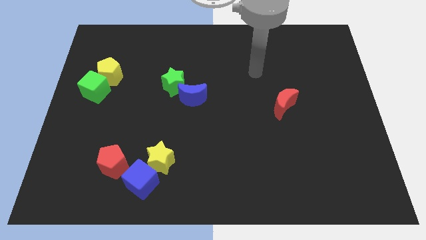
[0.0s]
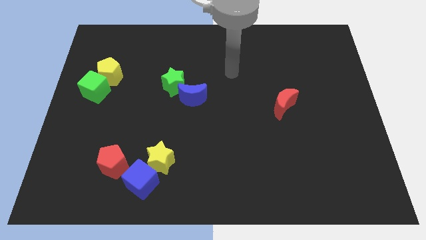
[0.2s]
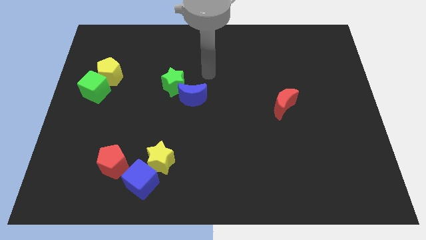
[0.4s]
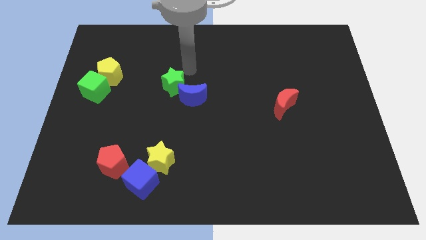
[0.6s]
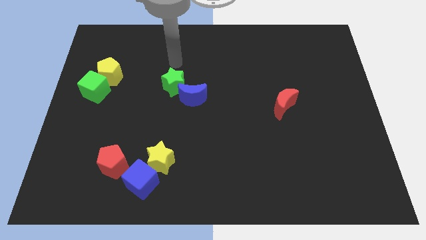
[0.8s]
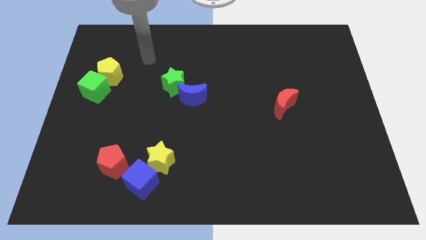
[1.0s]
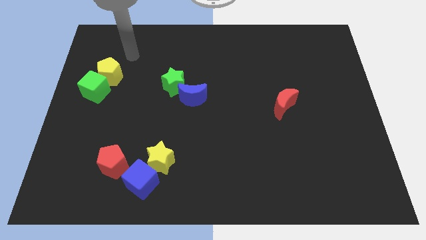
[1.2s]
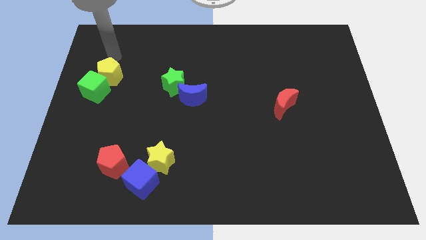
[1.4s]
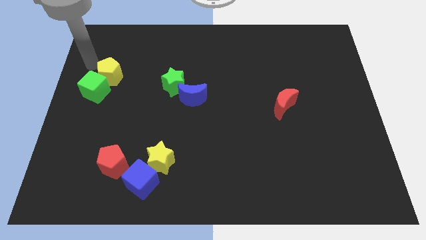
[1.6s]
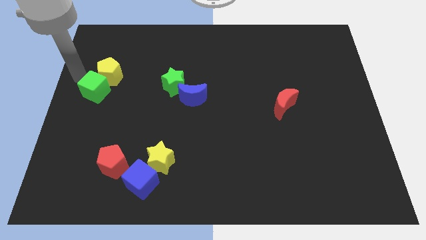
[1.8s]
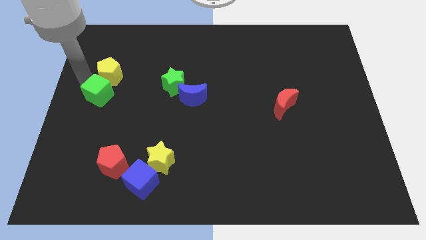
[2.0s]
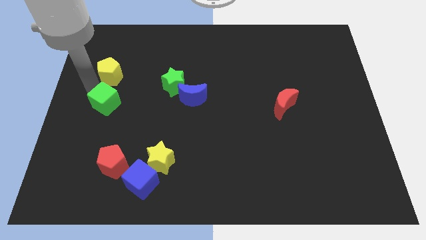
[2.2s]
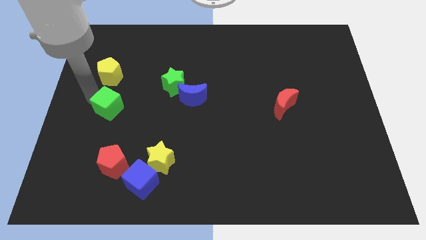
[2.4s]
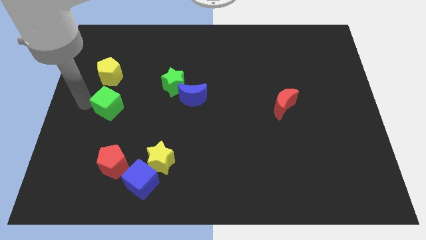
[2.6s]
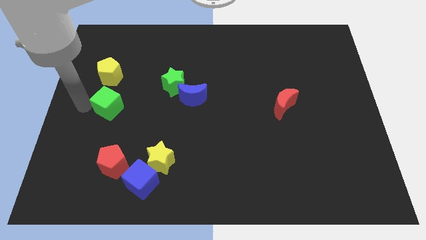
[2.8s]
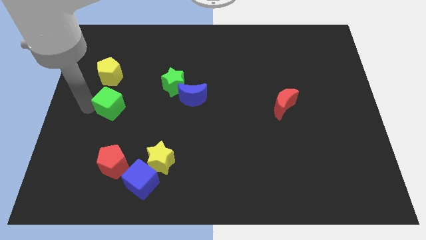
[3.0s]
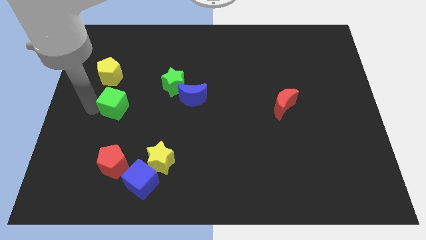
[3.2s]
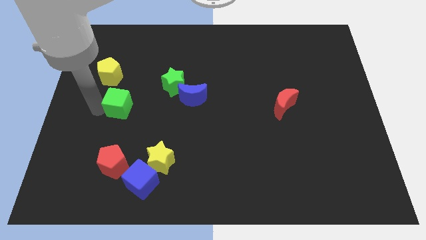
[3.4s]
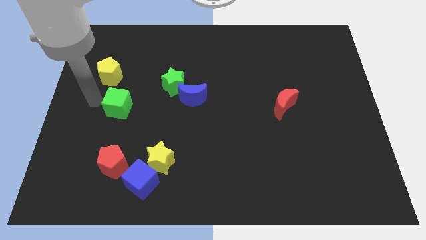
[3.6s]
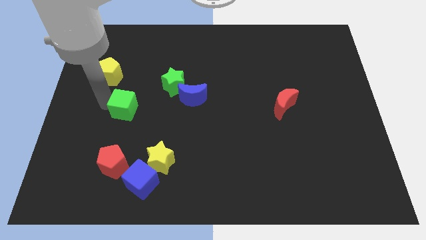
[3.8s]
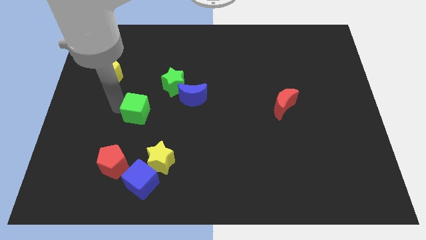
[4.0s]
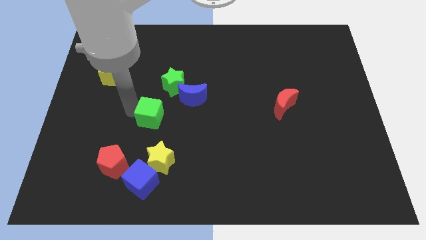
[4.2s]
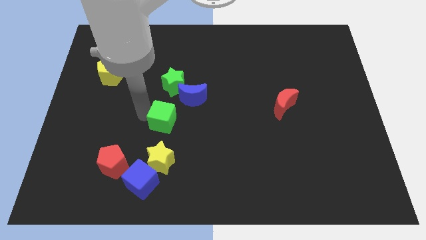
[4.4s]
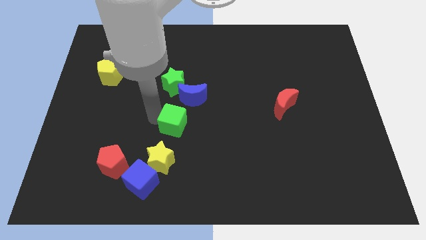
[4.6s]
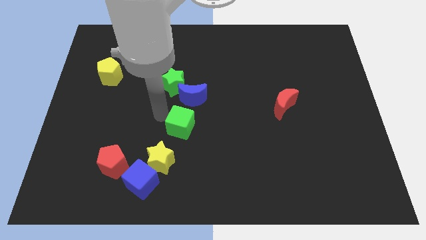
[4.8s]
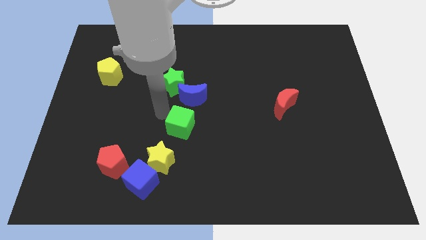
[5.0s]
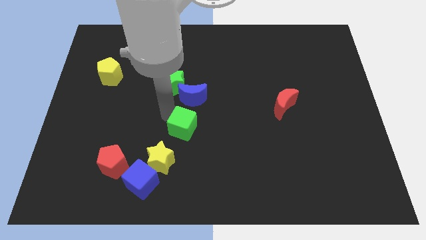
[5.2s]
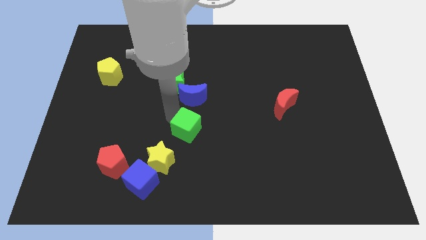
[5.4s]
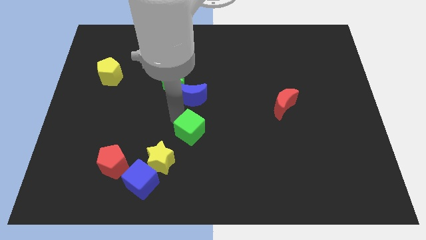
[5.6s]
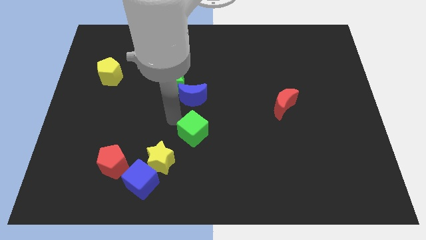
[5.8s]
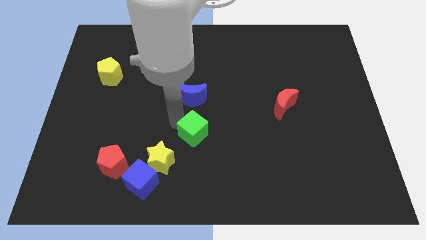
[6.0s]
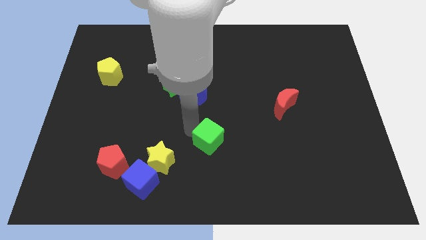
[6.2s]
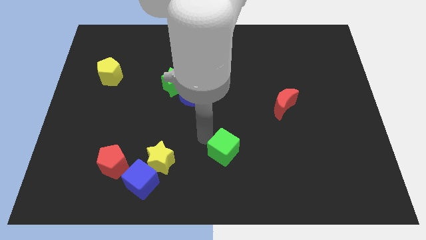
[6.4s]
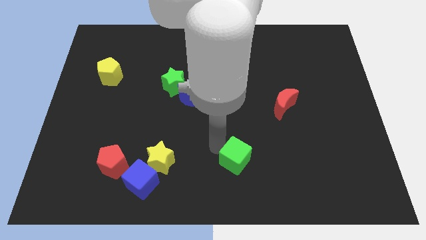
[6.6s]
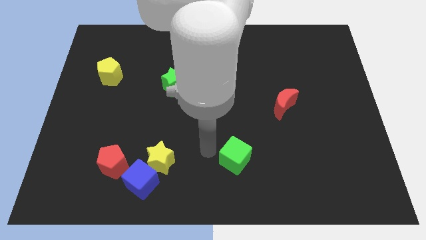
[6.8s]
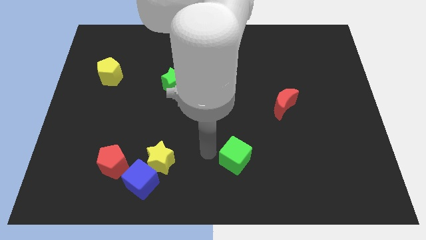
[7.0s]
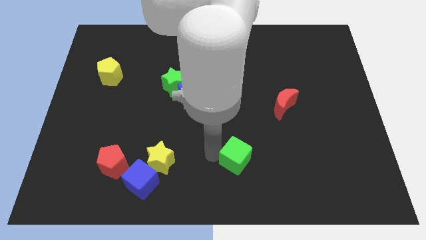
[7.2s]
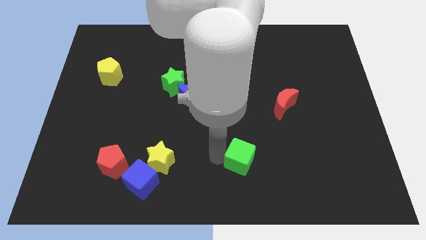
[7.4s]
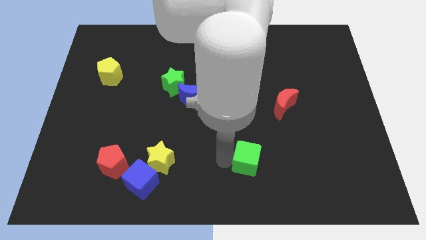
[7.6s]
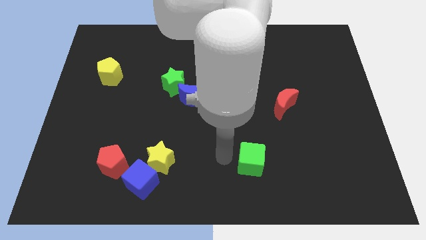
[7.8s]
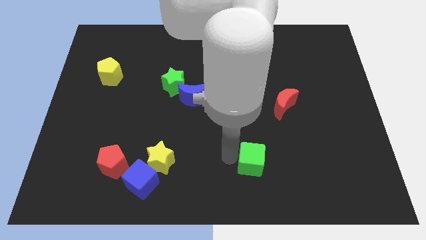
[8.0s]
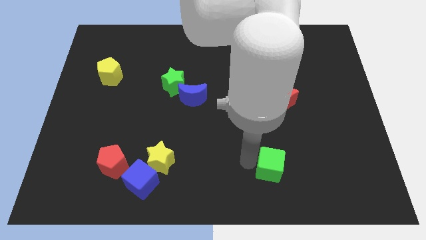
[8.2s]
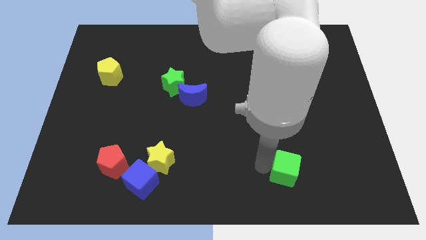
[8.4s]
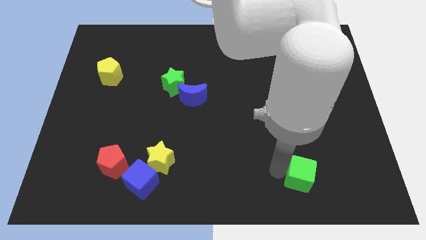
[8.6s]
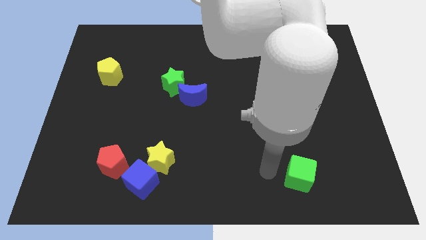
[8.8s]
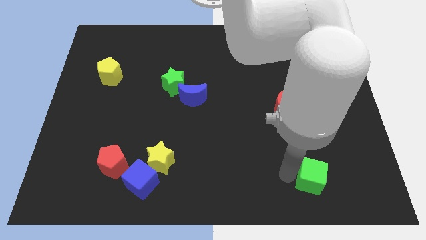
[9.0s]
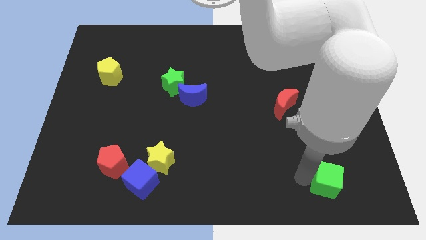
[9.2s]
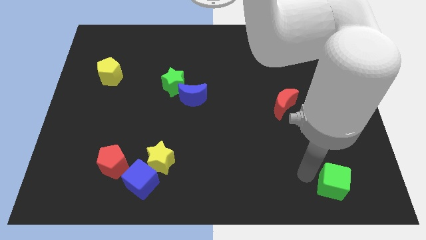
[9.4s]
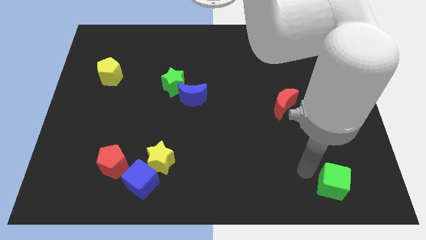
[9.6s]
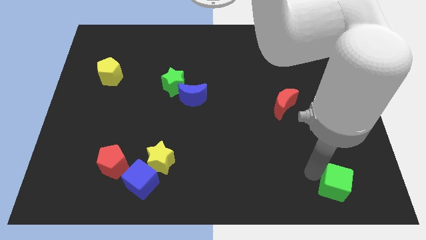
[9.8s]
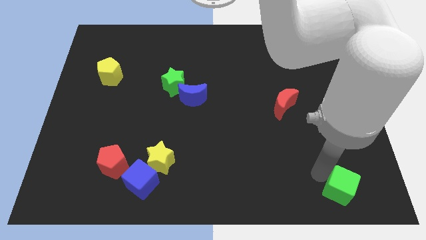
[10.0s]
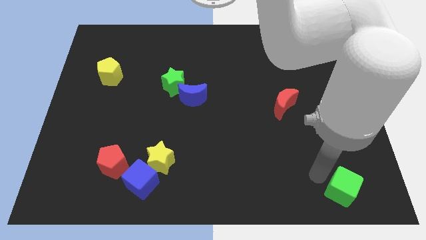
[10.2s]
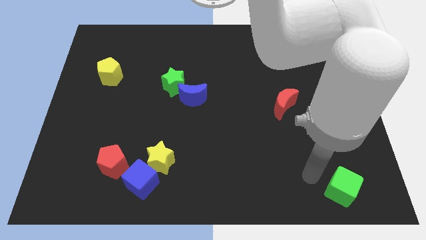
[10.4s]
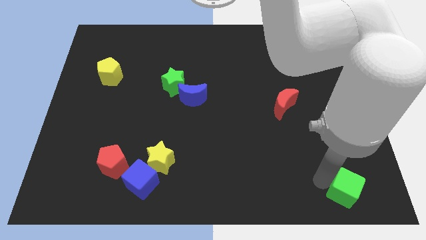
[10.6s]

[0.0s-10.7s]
move the green cube to the bottom right corner

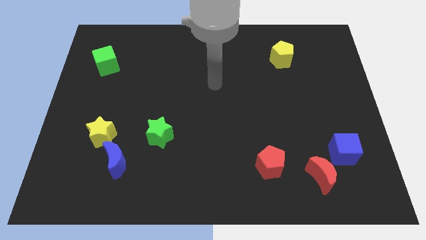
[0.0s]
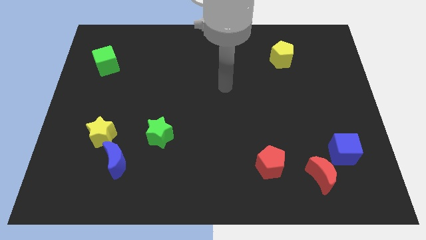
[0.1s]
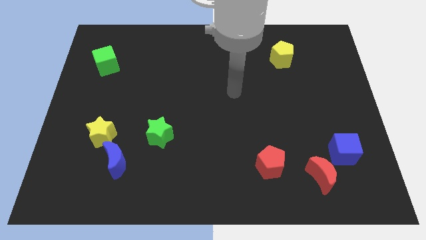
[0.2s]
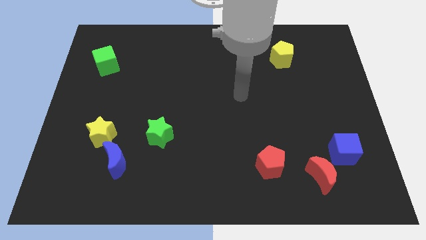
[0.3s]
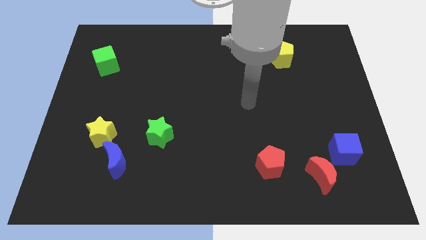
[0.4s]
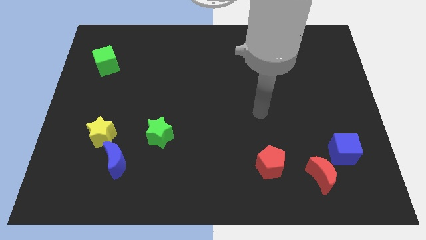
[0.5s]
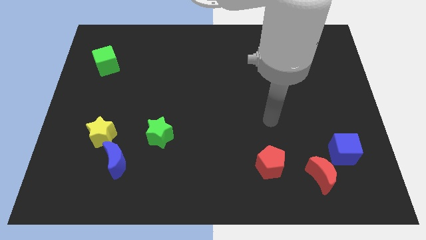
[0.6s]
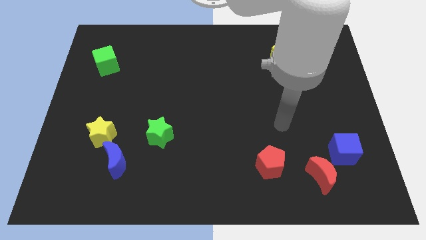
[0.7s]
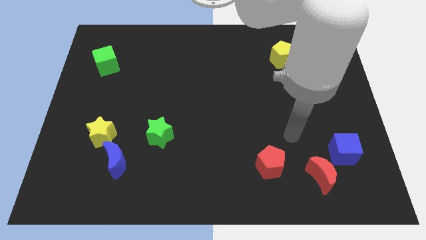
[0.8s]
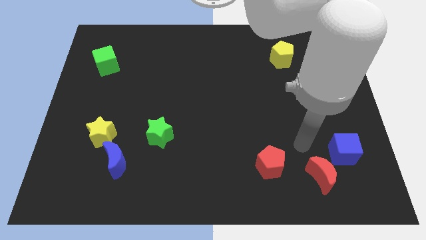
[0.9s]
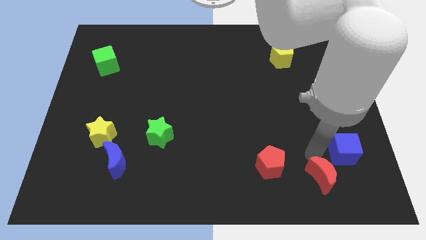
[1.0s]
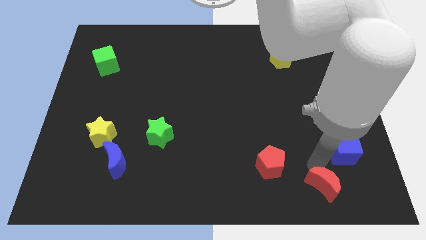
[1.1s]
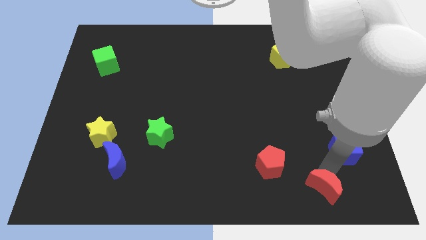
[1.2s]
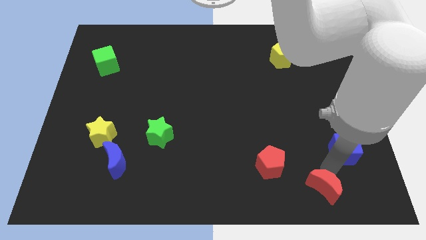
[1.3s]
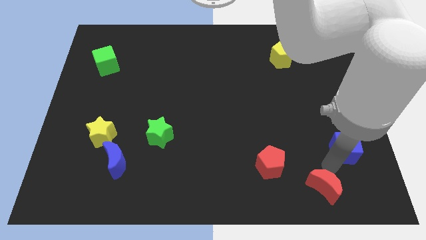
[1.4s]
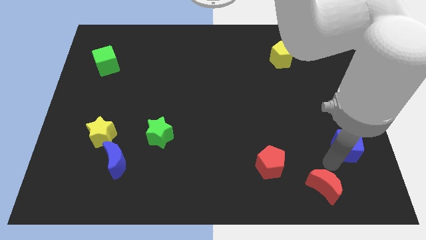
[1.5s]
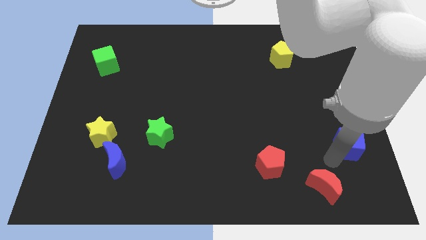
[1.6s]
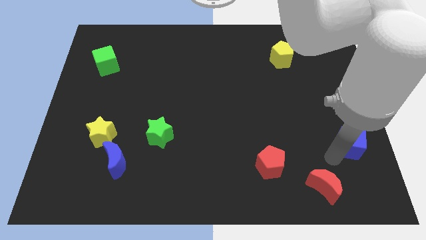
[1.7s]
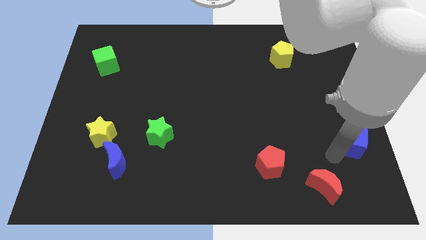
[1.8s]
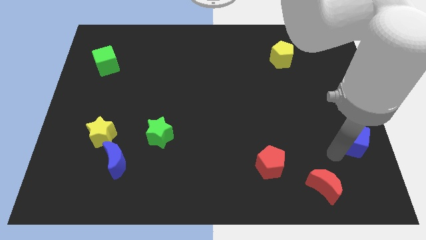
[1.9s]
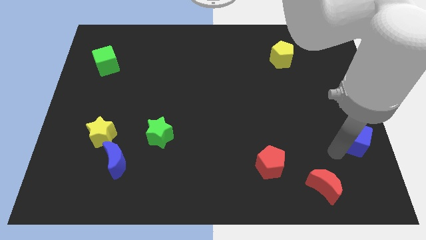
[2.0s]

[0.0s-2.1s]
put the blue cube to the right side
